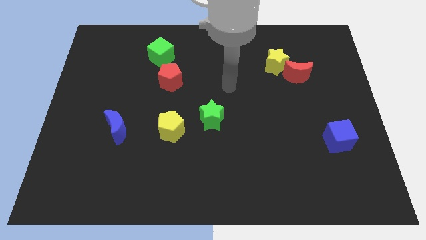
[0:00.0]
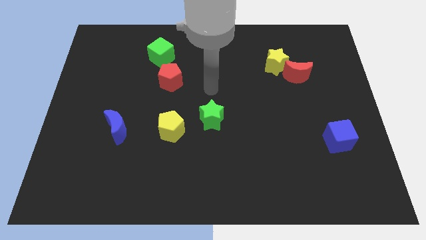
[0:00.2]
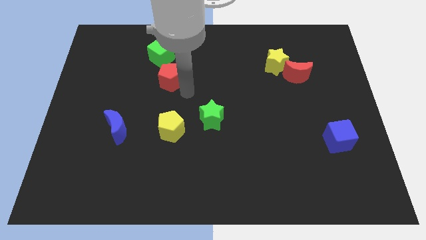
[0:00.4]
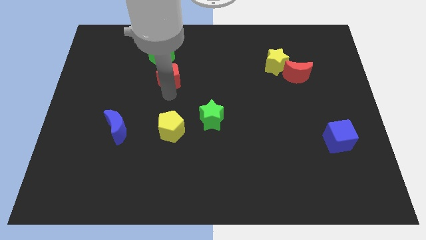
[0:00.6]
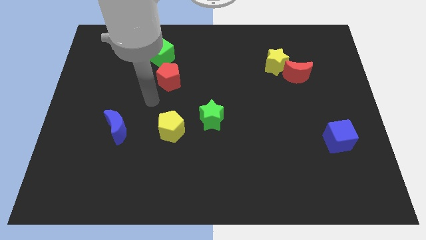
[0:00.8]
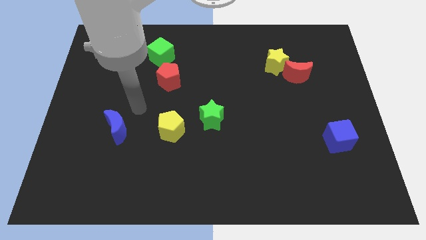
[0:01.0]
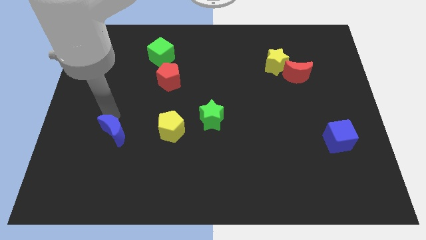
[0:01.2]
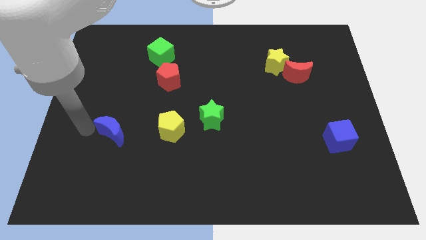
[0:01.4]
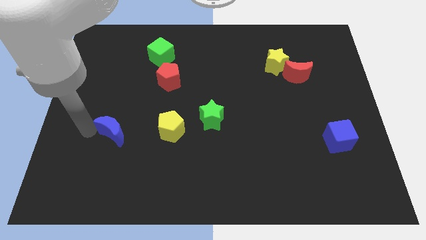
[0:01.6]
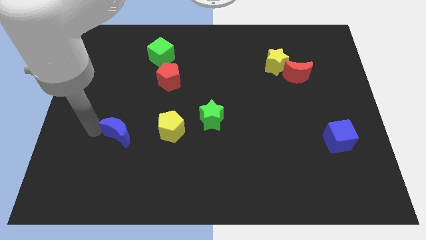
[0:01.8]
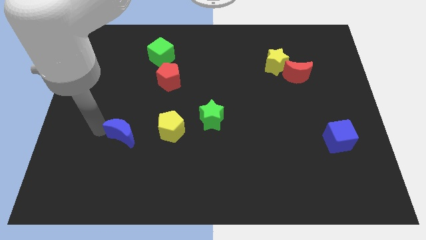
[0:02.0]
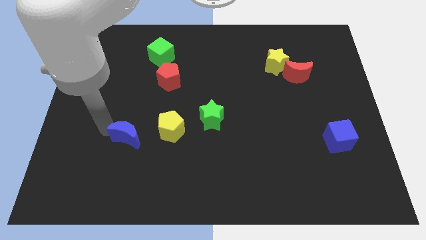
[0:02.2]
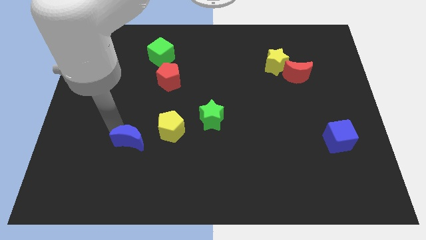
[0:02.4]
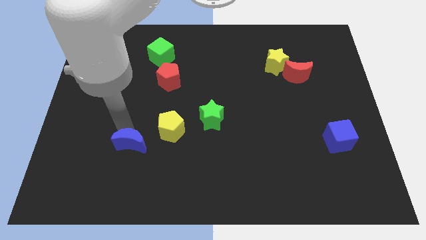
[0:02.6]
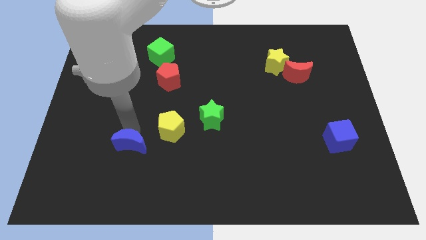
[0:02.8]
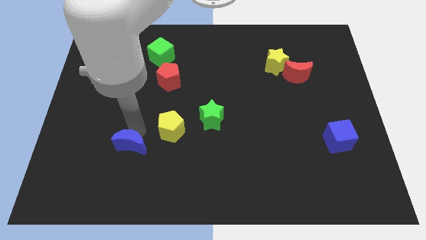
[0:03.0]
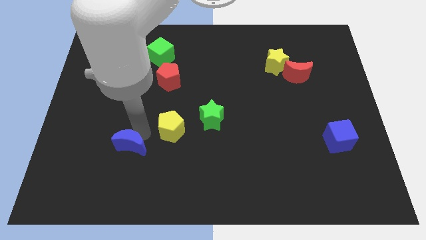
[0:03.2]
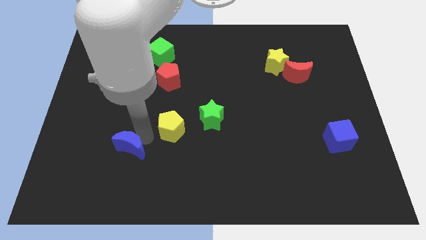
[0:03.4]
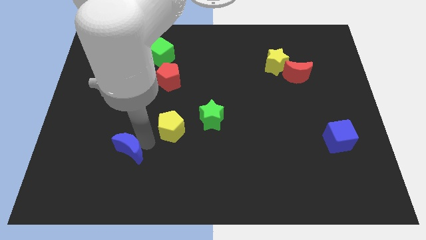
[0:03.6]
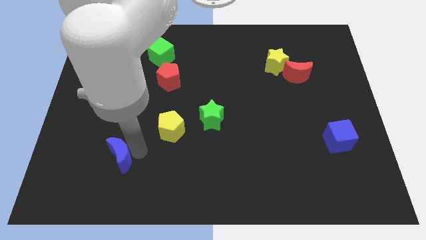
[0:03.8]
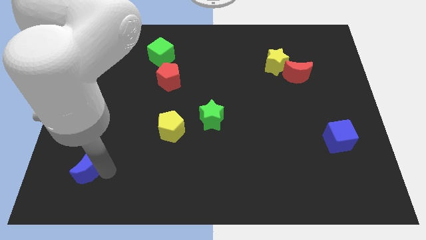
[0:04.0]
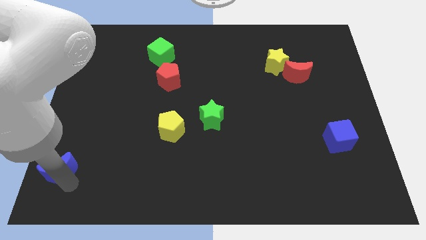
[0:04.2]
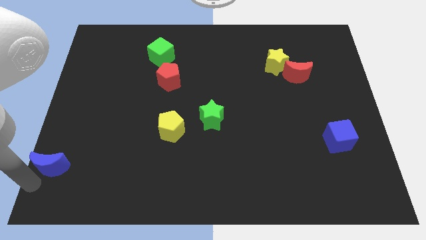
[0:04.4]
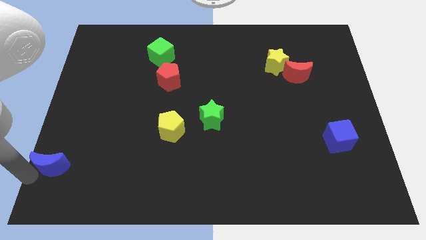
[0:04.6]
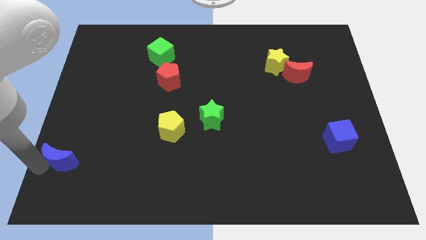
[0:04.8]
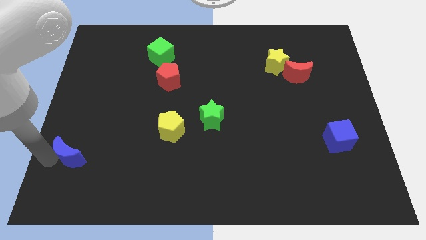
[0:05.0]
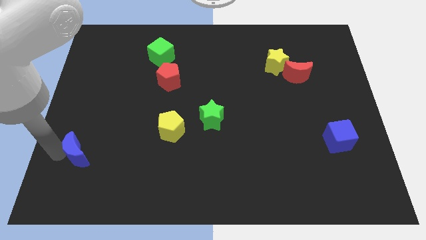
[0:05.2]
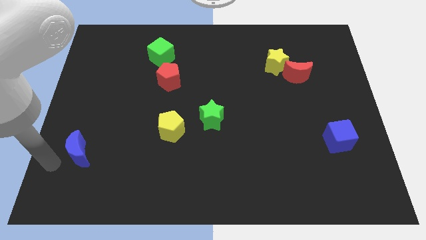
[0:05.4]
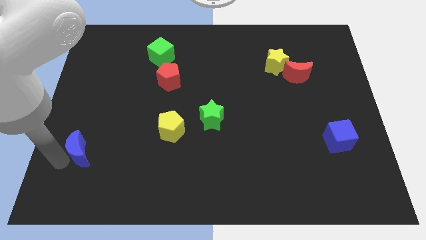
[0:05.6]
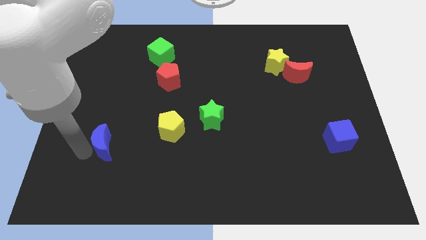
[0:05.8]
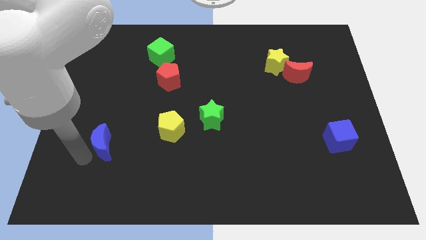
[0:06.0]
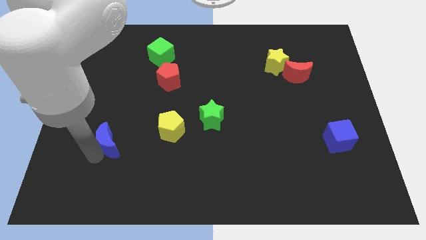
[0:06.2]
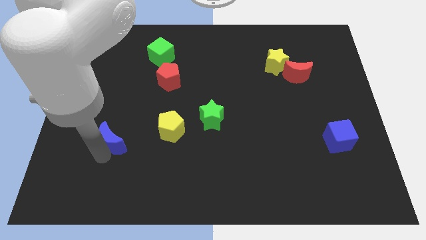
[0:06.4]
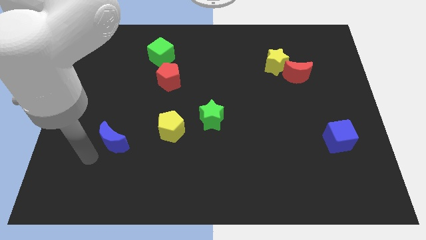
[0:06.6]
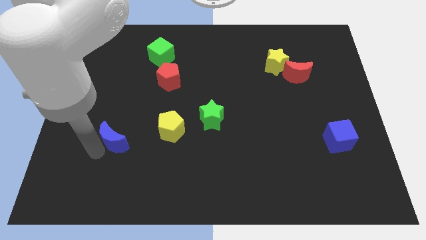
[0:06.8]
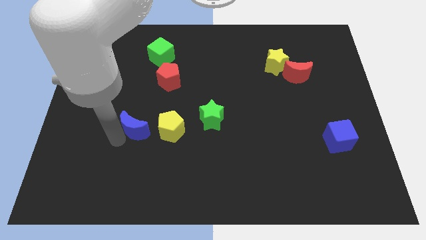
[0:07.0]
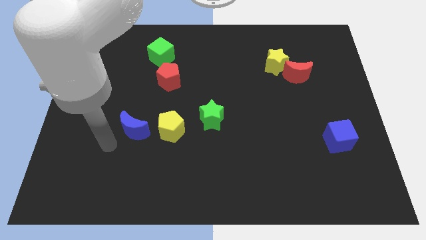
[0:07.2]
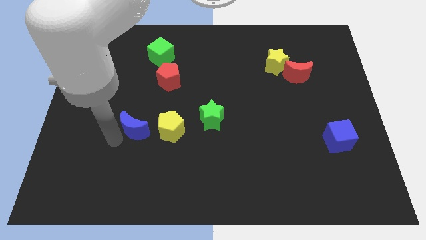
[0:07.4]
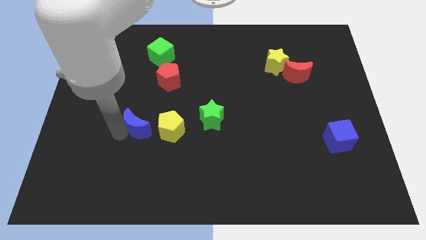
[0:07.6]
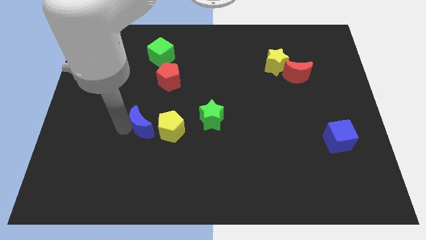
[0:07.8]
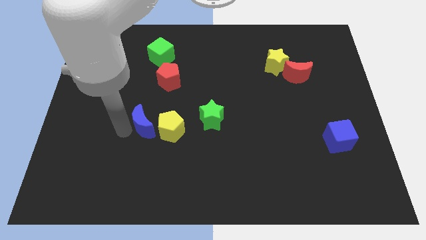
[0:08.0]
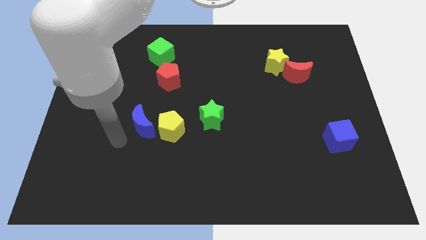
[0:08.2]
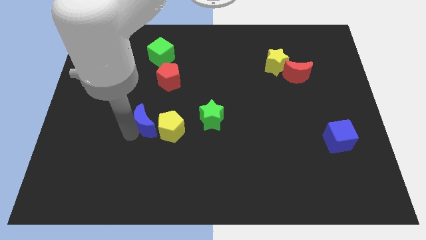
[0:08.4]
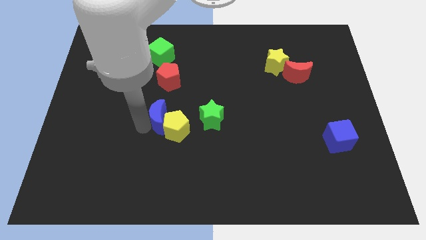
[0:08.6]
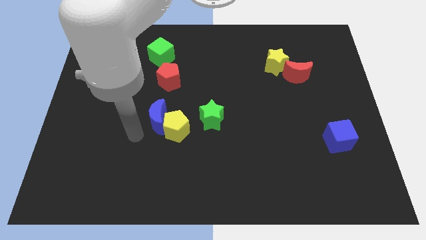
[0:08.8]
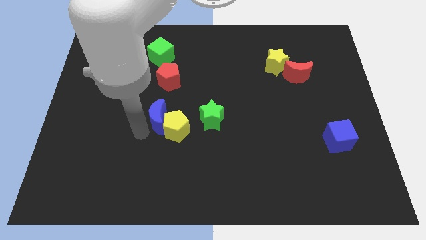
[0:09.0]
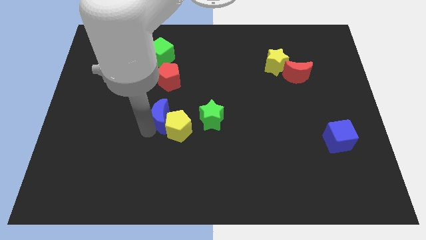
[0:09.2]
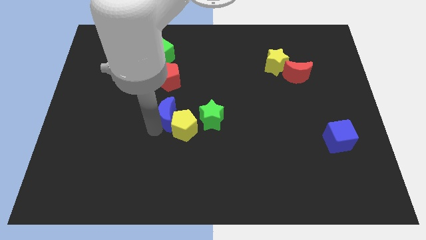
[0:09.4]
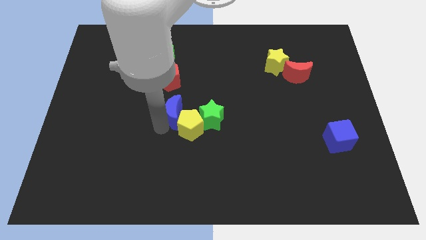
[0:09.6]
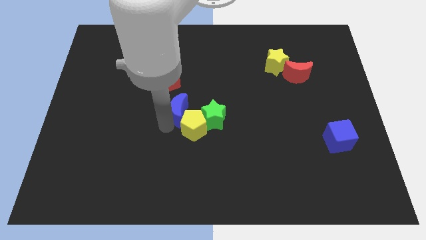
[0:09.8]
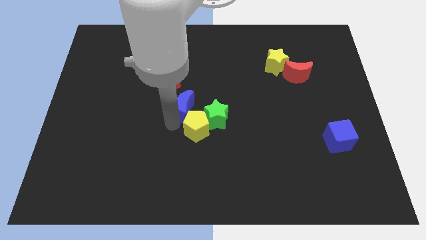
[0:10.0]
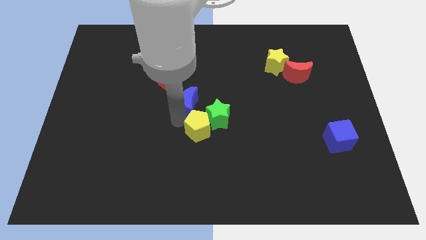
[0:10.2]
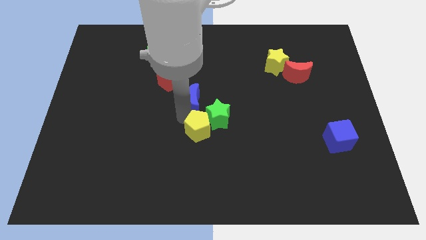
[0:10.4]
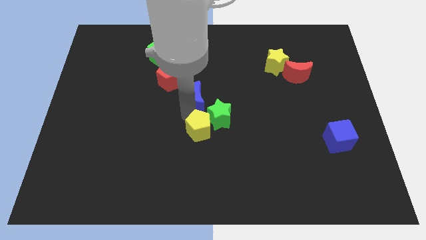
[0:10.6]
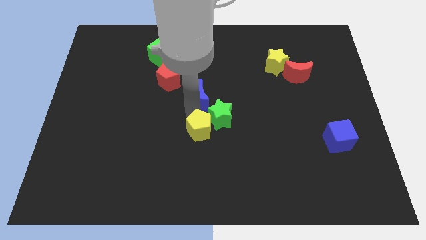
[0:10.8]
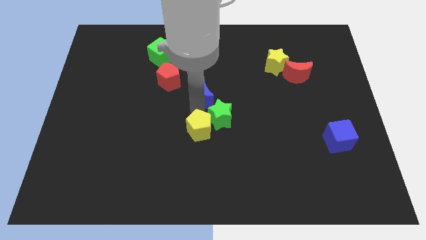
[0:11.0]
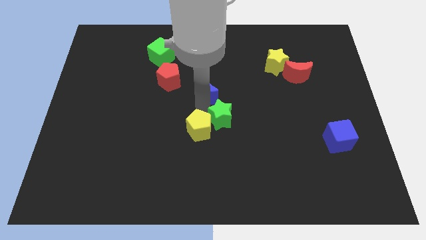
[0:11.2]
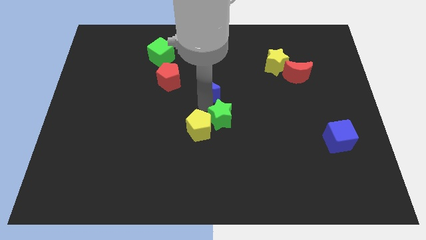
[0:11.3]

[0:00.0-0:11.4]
move the blue moon up and to the right diagonally

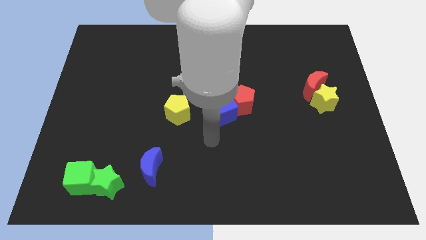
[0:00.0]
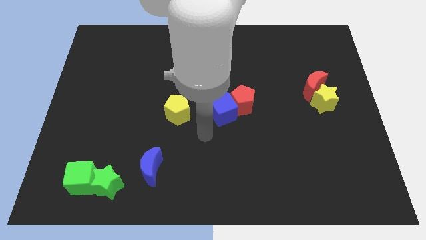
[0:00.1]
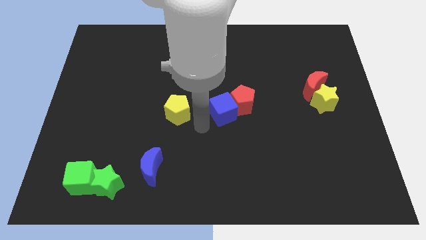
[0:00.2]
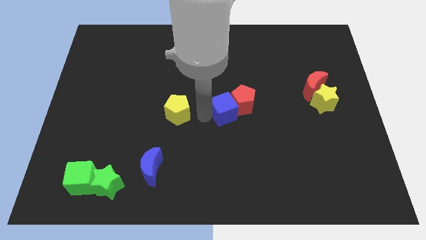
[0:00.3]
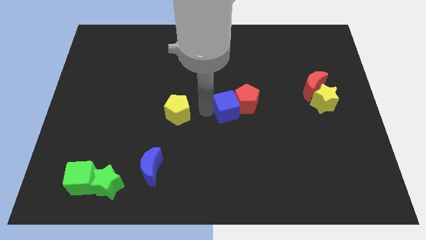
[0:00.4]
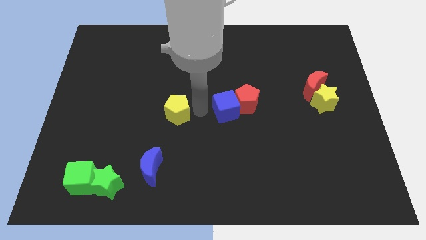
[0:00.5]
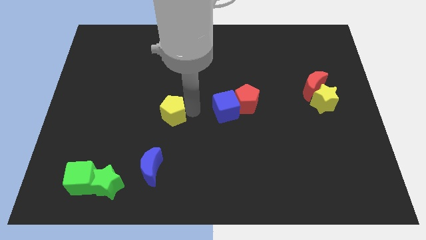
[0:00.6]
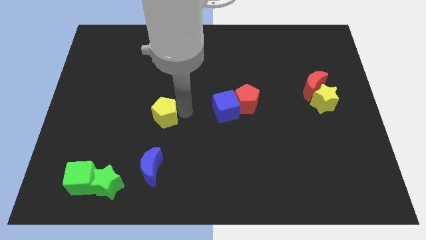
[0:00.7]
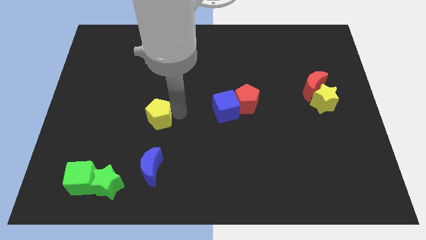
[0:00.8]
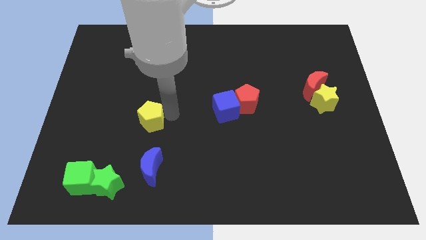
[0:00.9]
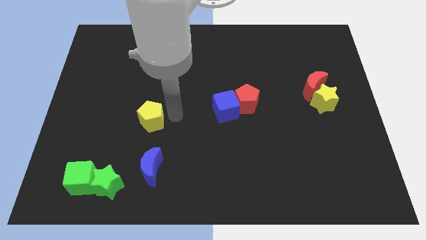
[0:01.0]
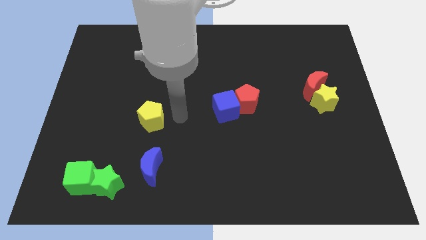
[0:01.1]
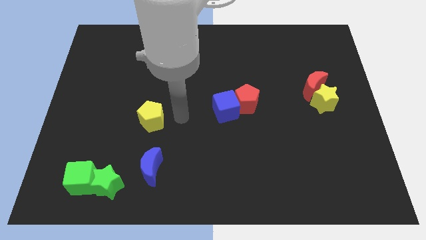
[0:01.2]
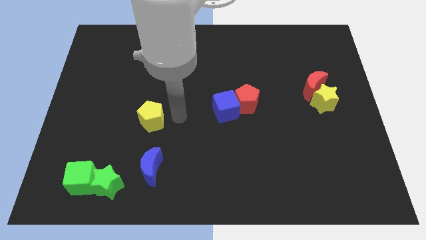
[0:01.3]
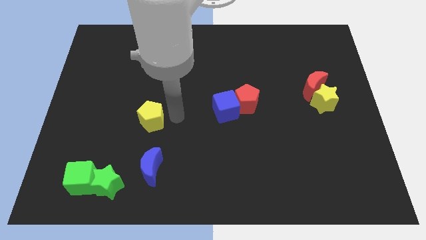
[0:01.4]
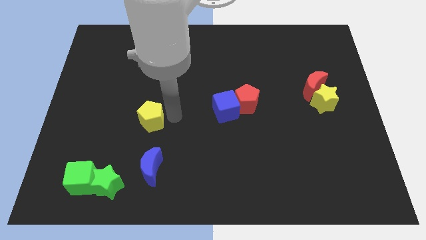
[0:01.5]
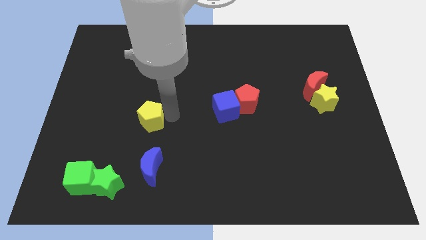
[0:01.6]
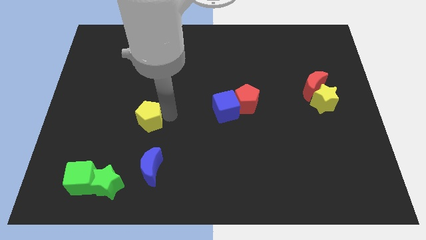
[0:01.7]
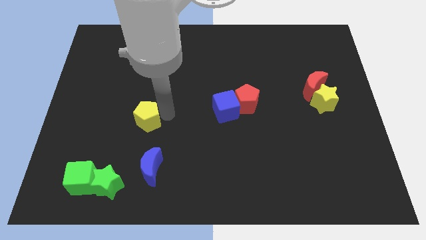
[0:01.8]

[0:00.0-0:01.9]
move the yellow pentagon left slightly
